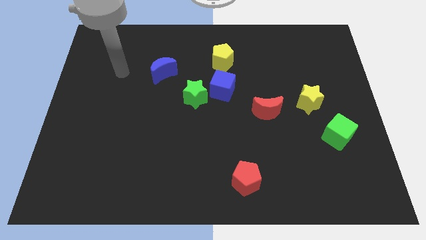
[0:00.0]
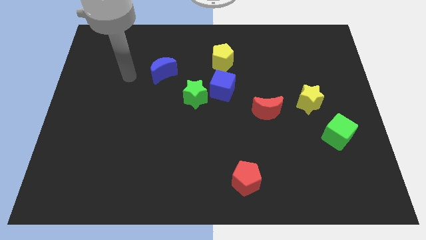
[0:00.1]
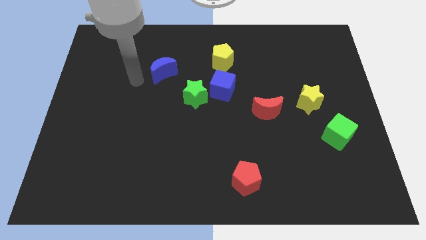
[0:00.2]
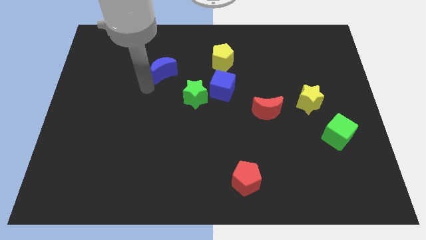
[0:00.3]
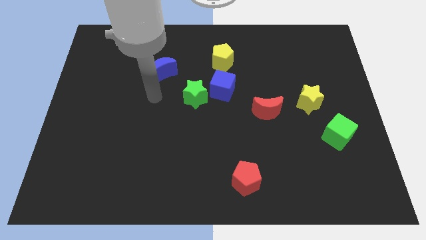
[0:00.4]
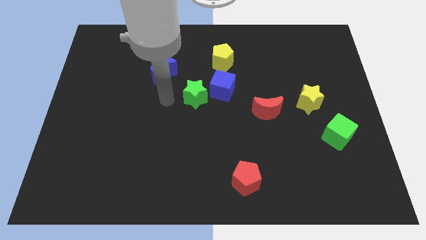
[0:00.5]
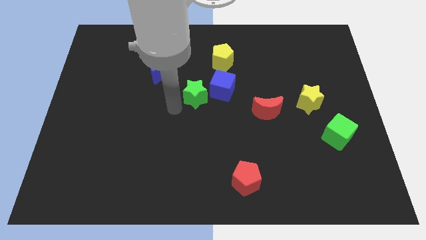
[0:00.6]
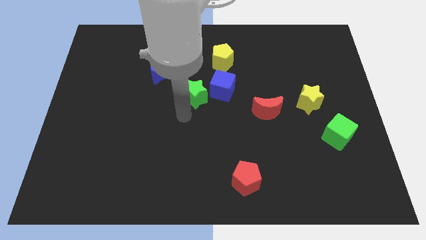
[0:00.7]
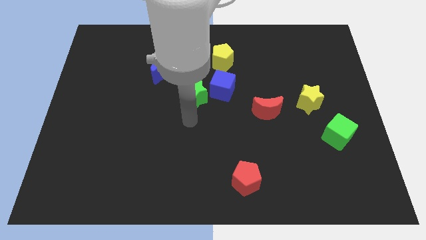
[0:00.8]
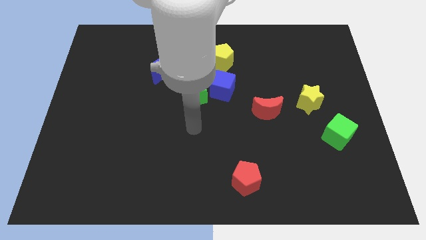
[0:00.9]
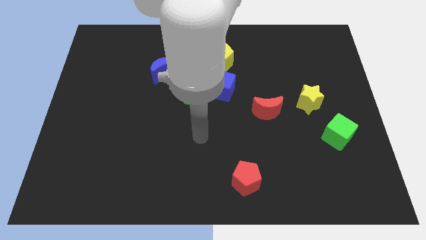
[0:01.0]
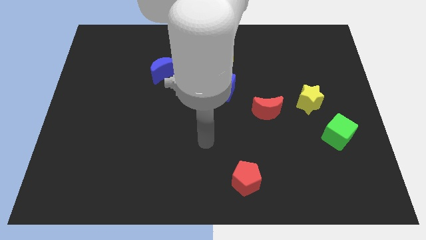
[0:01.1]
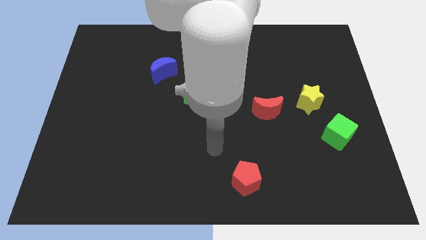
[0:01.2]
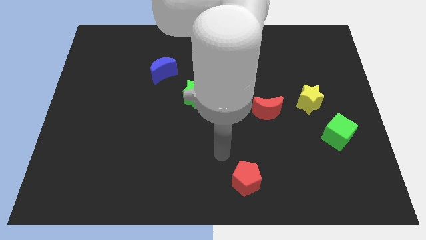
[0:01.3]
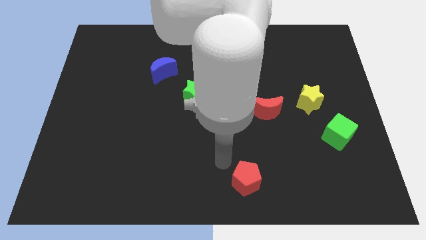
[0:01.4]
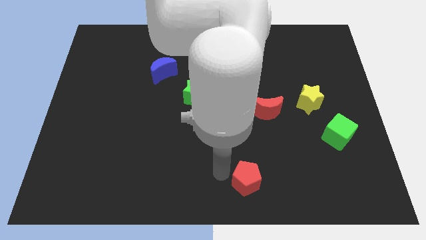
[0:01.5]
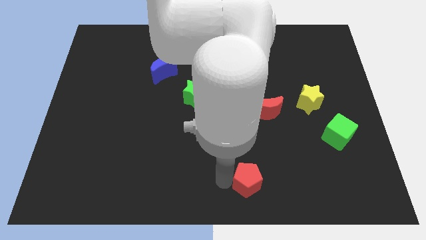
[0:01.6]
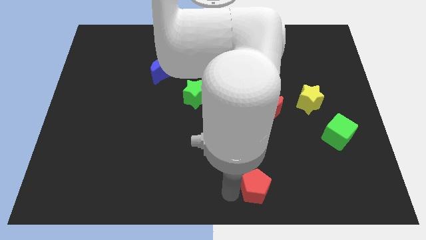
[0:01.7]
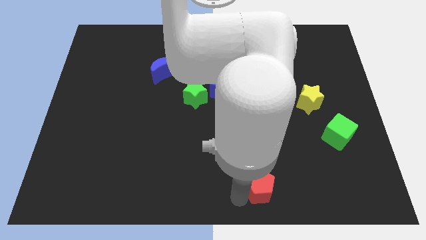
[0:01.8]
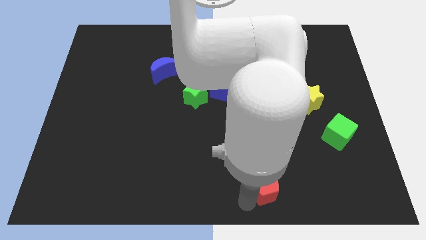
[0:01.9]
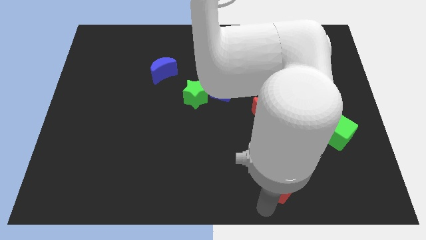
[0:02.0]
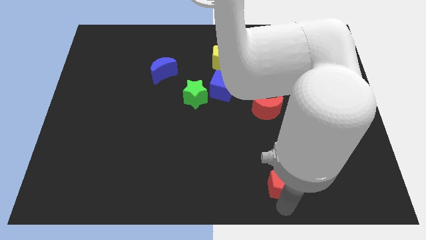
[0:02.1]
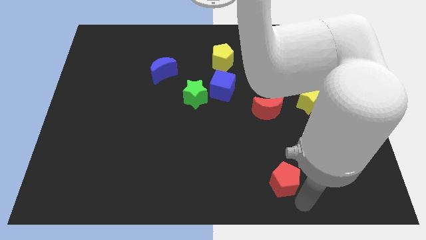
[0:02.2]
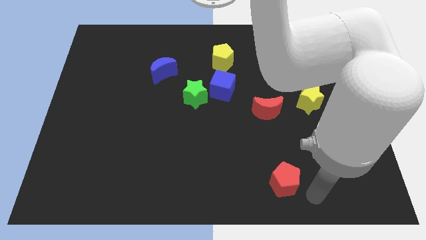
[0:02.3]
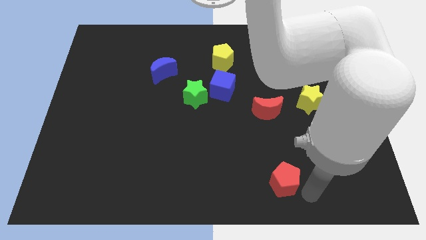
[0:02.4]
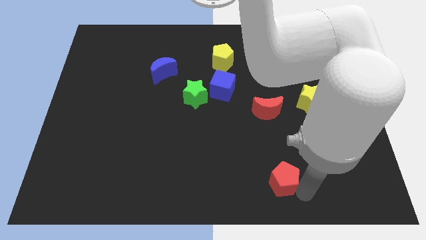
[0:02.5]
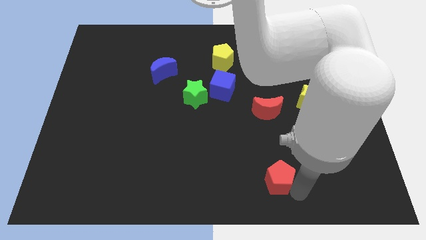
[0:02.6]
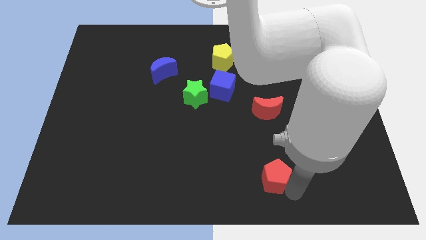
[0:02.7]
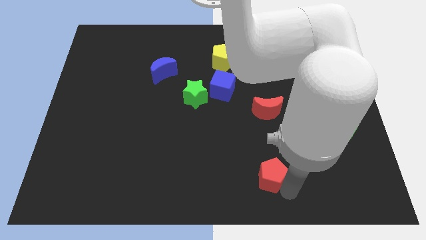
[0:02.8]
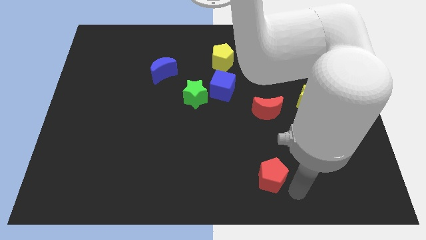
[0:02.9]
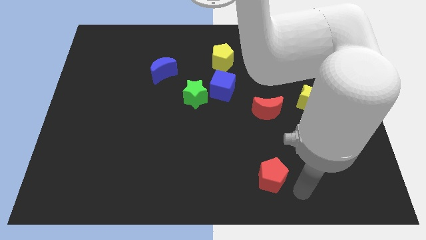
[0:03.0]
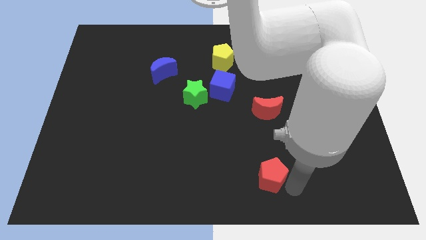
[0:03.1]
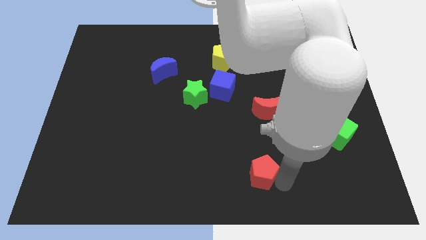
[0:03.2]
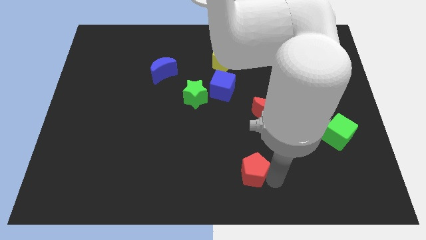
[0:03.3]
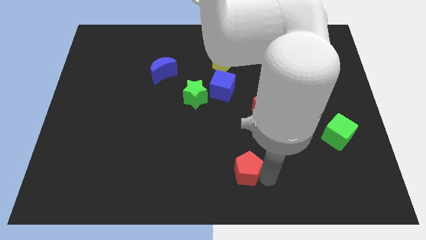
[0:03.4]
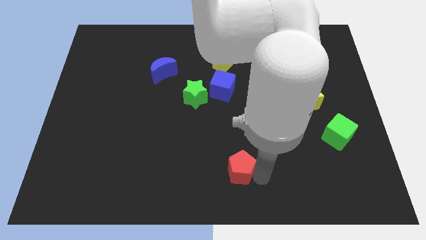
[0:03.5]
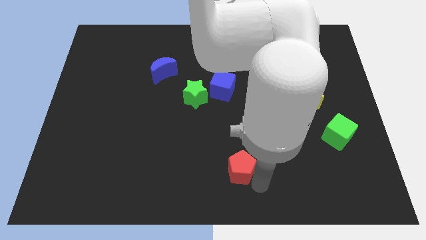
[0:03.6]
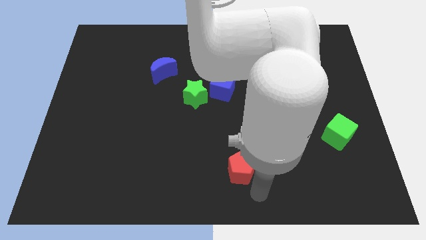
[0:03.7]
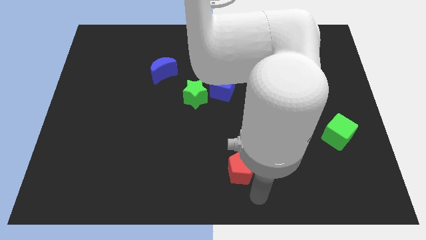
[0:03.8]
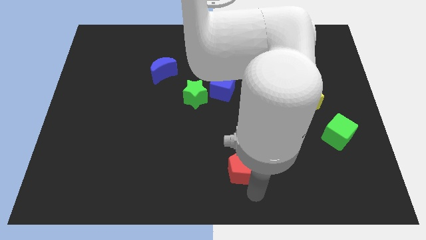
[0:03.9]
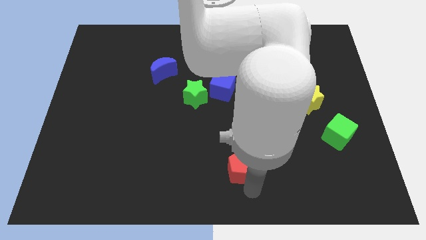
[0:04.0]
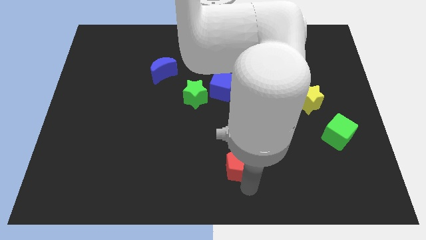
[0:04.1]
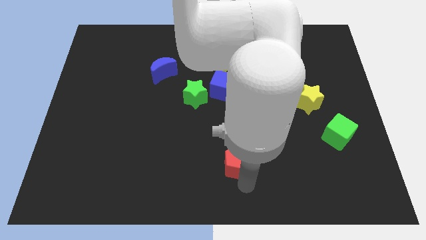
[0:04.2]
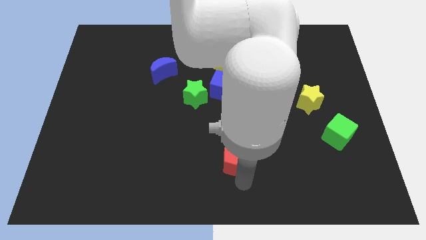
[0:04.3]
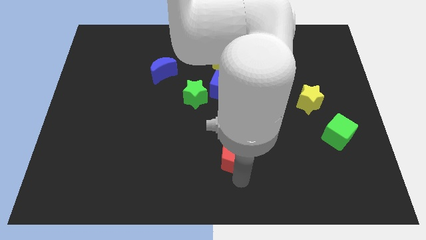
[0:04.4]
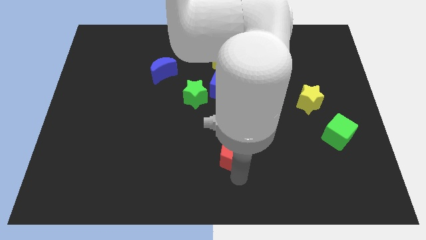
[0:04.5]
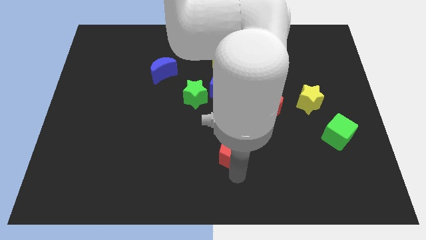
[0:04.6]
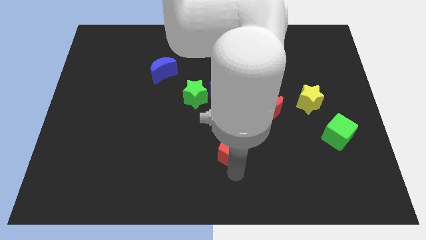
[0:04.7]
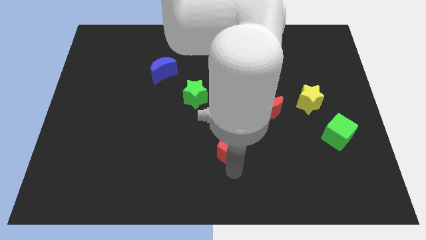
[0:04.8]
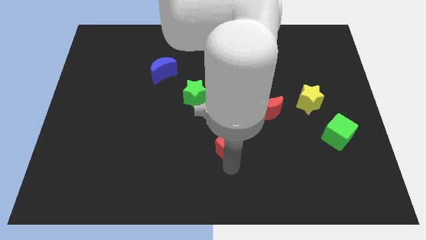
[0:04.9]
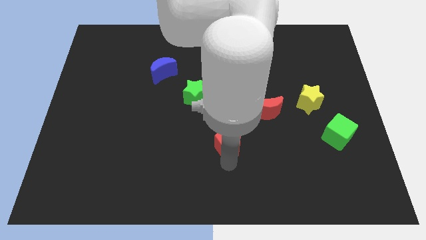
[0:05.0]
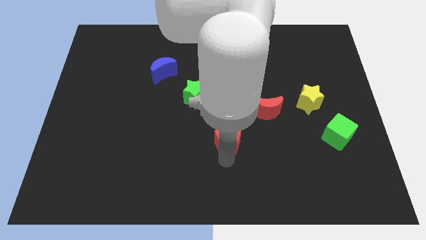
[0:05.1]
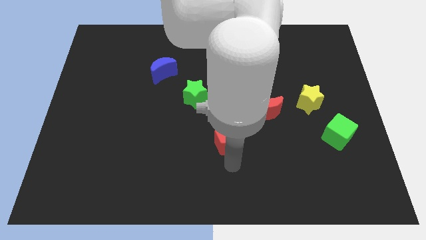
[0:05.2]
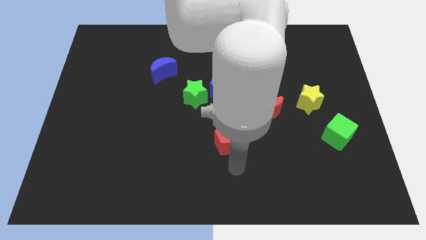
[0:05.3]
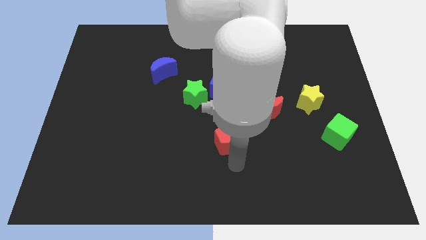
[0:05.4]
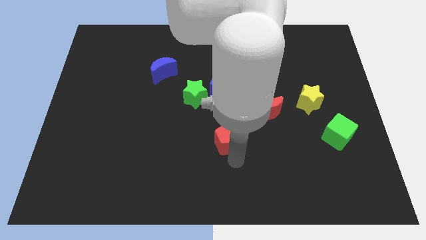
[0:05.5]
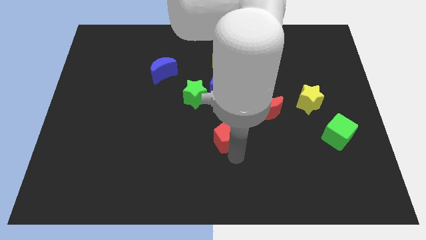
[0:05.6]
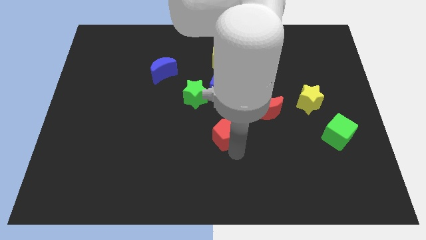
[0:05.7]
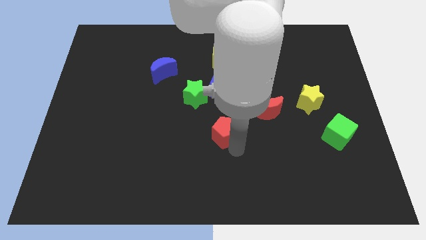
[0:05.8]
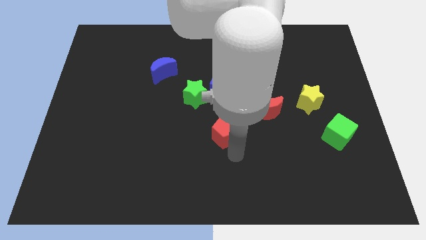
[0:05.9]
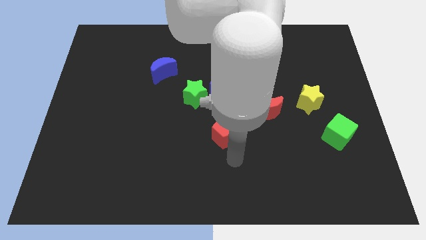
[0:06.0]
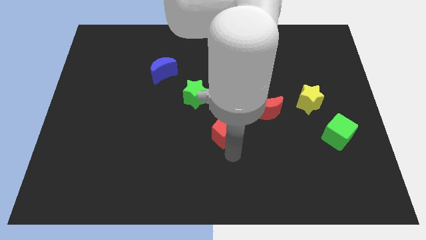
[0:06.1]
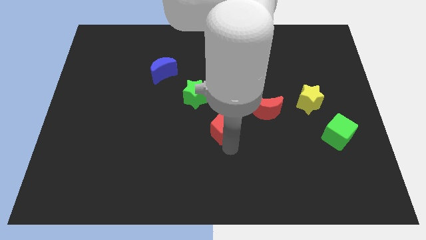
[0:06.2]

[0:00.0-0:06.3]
put the red pentagon diagonally down and to the right of the green star

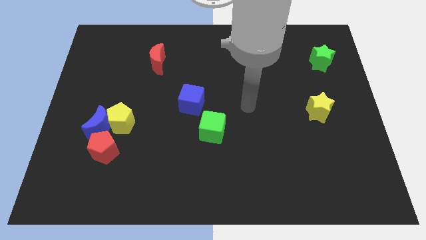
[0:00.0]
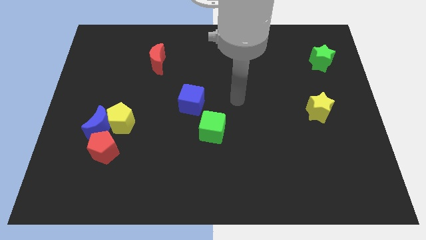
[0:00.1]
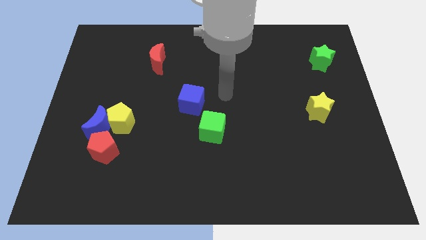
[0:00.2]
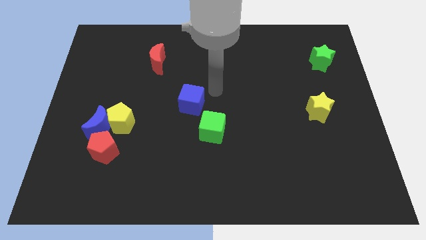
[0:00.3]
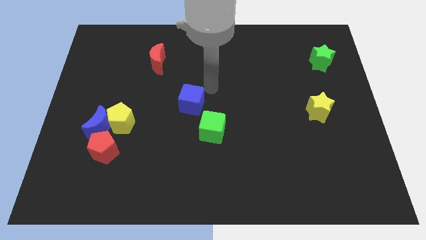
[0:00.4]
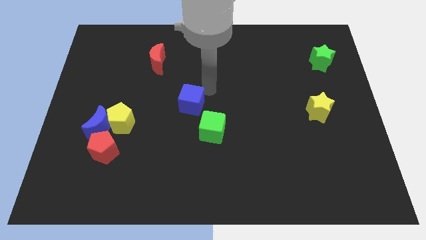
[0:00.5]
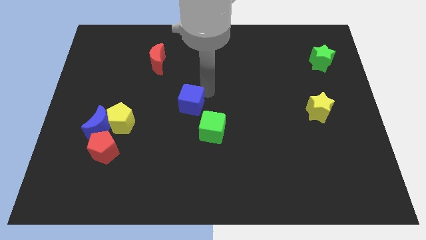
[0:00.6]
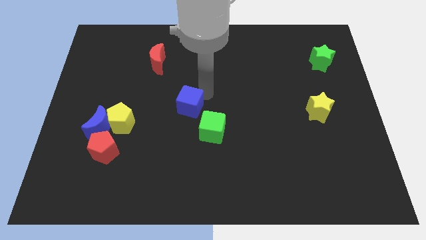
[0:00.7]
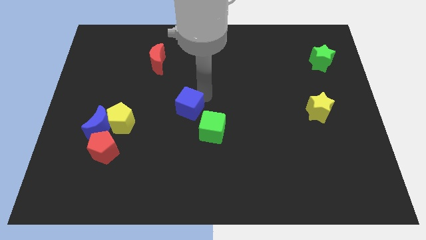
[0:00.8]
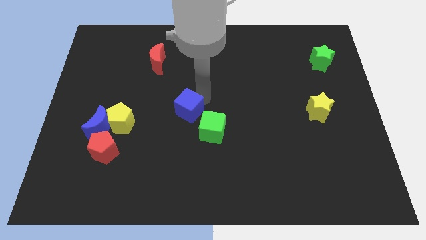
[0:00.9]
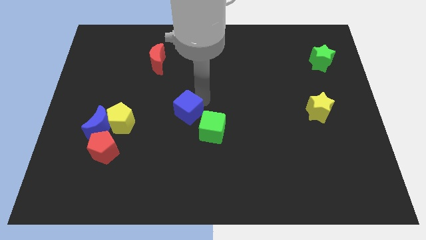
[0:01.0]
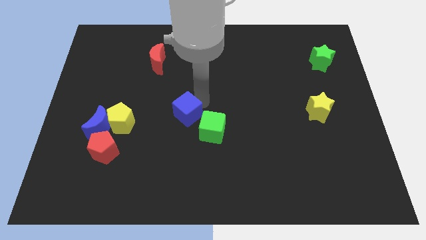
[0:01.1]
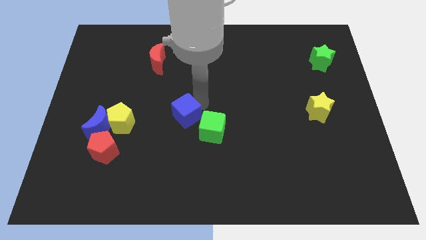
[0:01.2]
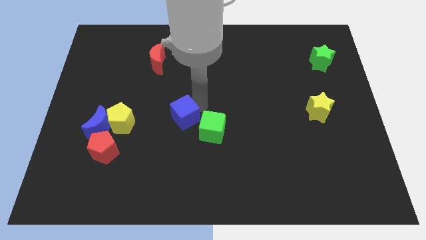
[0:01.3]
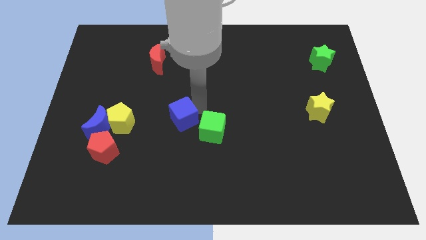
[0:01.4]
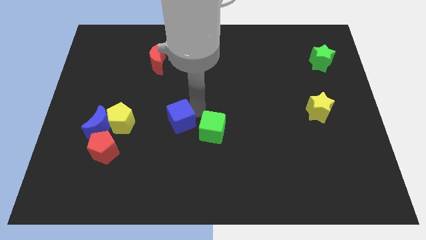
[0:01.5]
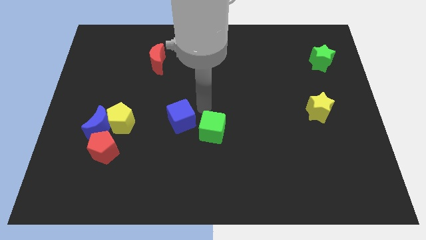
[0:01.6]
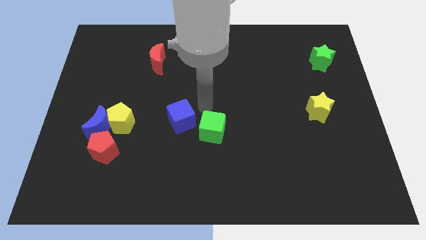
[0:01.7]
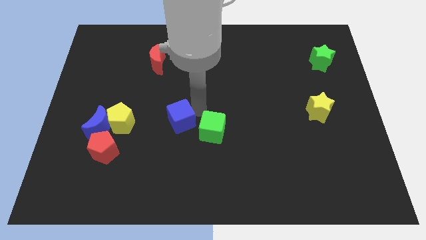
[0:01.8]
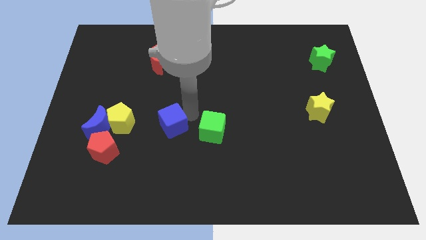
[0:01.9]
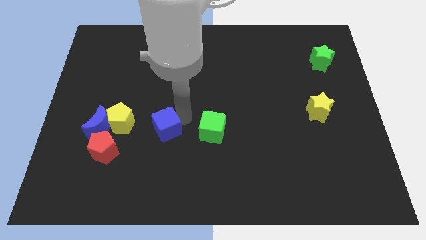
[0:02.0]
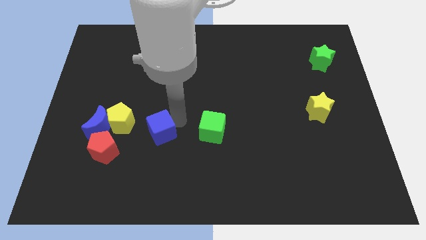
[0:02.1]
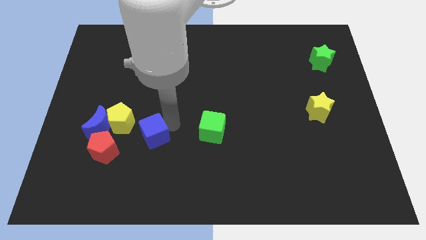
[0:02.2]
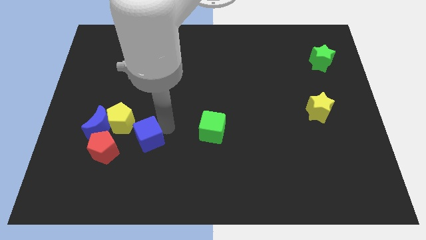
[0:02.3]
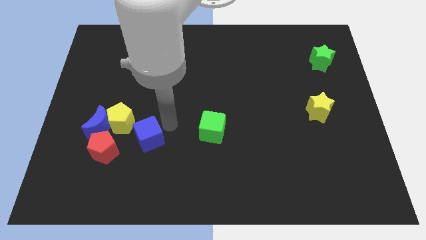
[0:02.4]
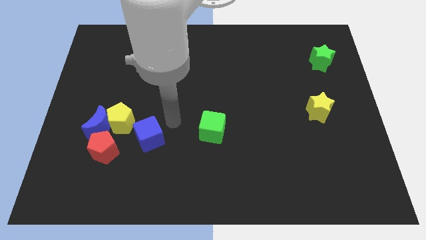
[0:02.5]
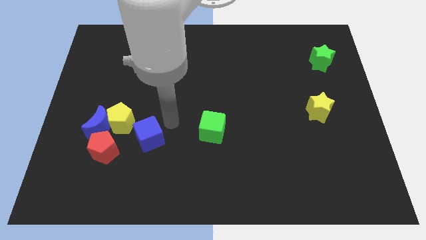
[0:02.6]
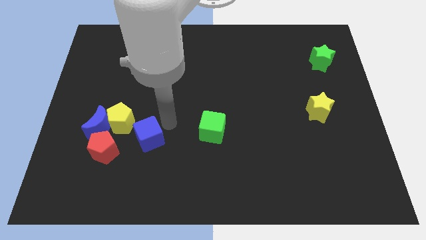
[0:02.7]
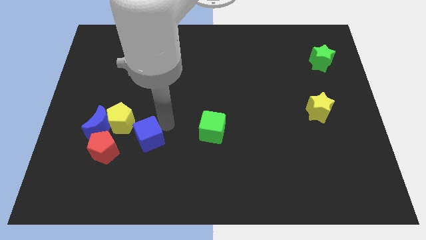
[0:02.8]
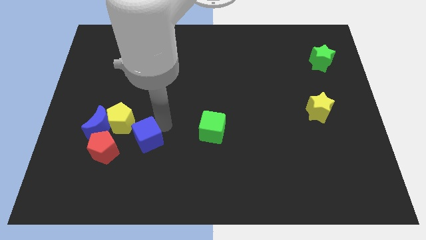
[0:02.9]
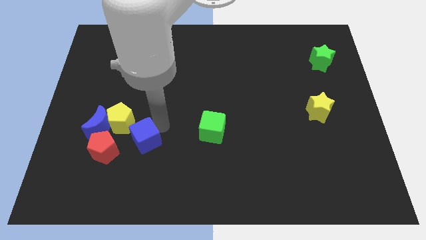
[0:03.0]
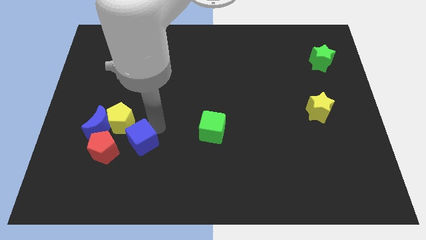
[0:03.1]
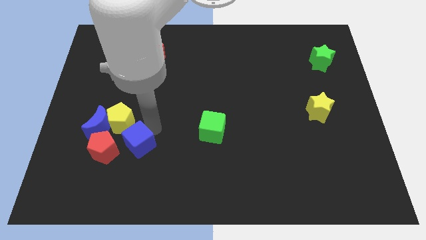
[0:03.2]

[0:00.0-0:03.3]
move the blue cube to the bottom of the yellow pentagon
